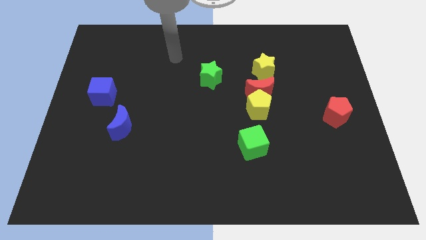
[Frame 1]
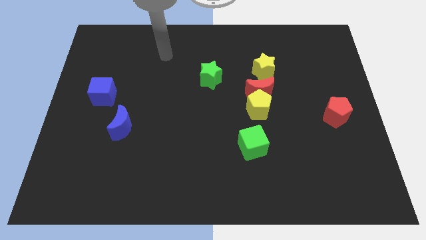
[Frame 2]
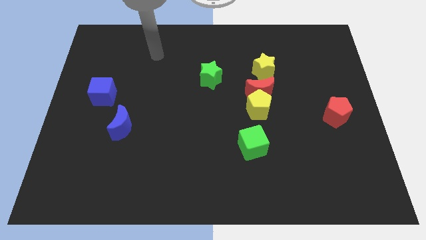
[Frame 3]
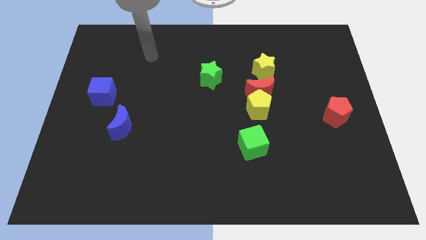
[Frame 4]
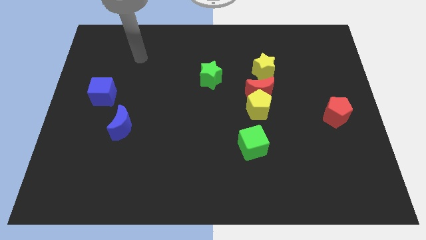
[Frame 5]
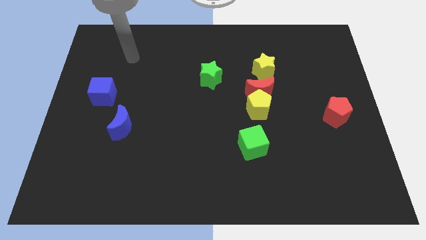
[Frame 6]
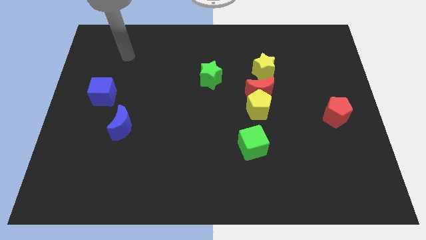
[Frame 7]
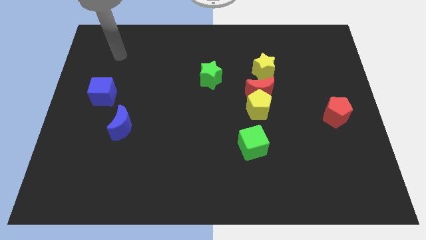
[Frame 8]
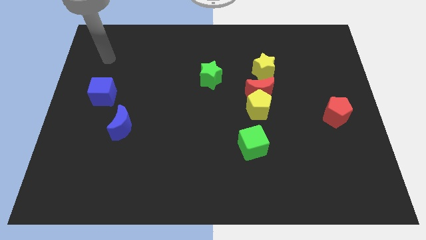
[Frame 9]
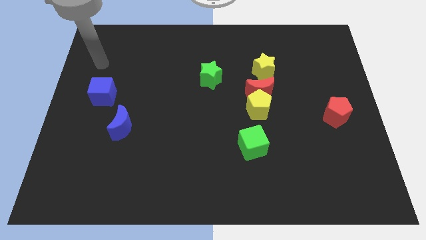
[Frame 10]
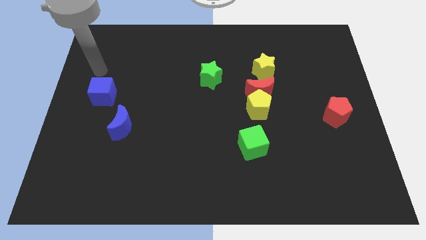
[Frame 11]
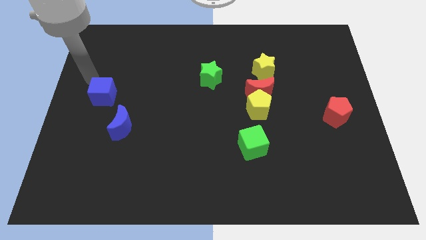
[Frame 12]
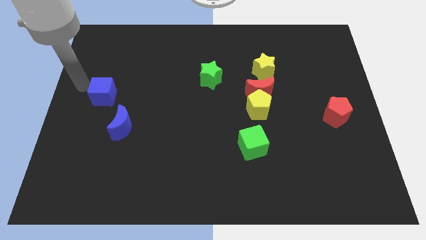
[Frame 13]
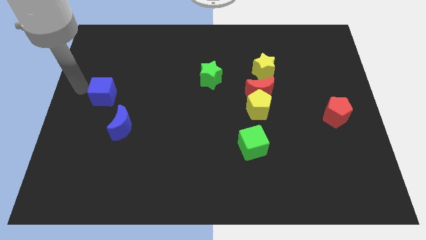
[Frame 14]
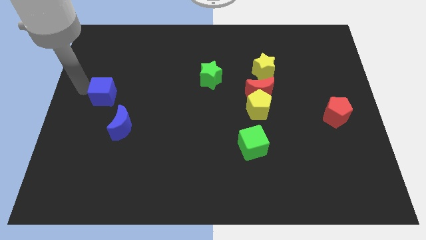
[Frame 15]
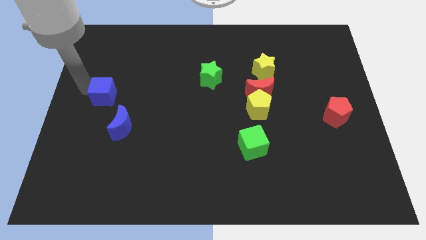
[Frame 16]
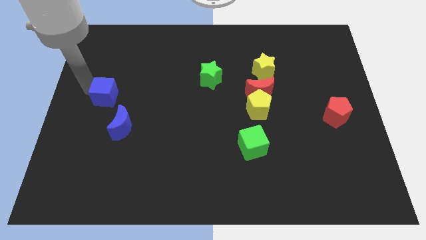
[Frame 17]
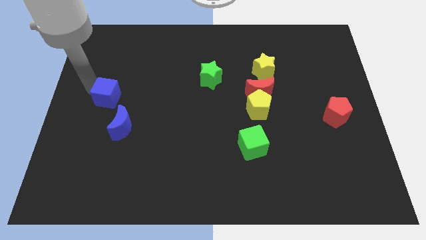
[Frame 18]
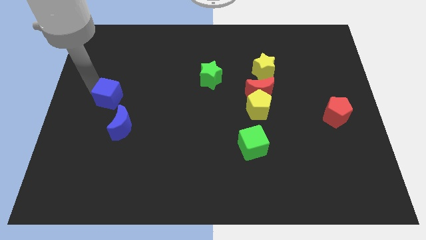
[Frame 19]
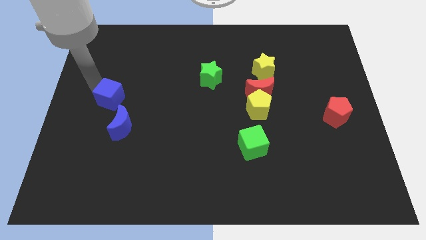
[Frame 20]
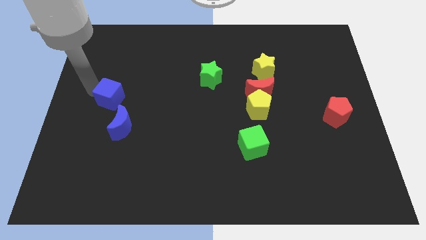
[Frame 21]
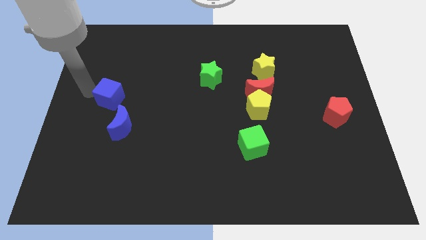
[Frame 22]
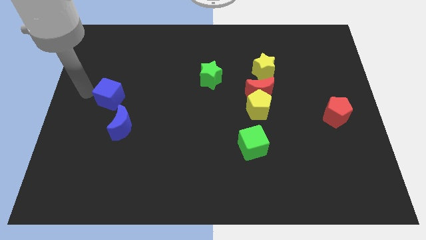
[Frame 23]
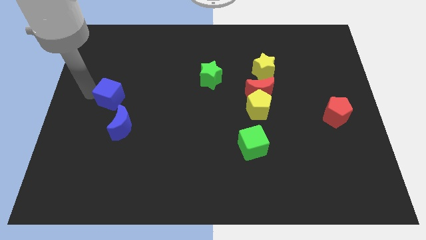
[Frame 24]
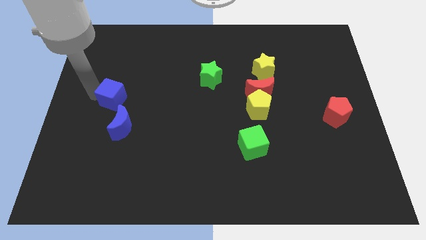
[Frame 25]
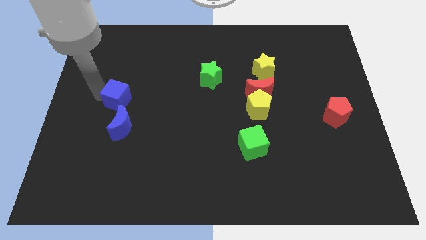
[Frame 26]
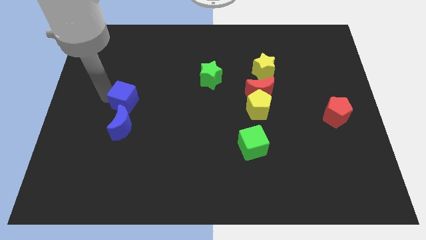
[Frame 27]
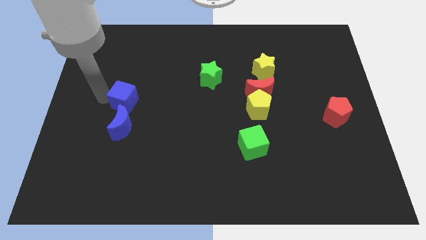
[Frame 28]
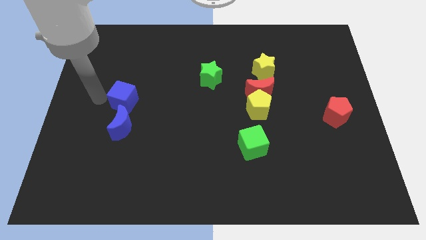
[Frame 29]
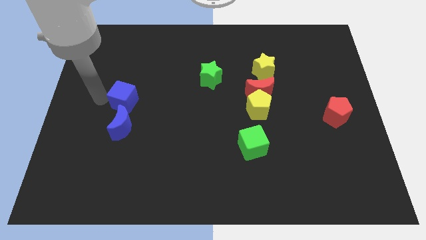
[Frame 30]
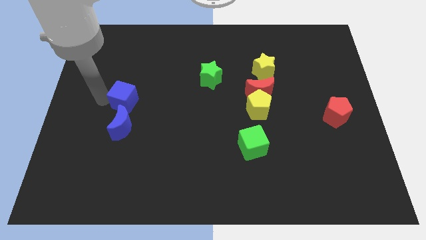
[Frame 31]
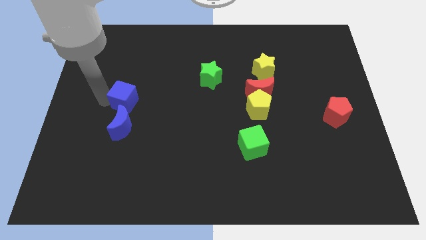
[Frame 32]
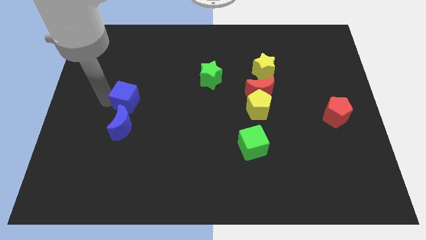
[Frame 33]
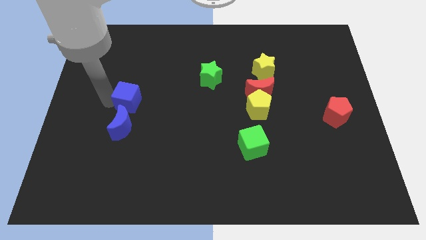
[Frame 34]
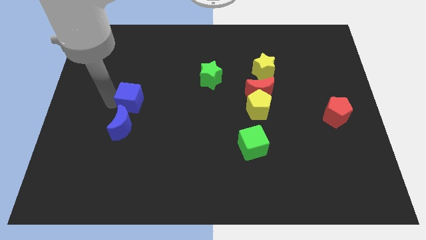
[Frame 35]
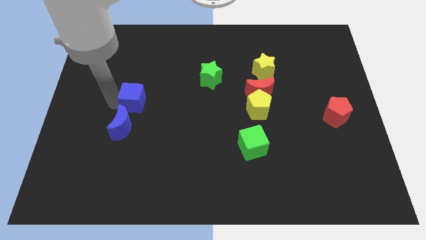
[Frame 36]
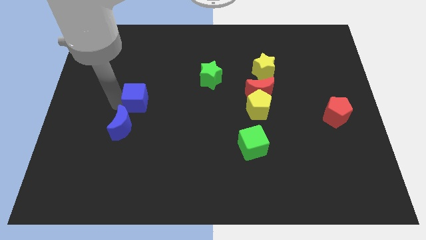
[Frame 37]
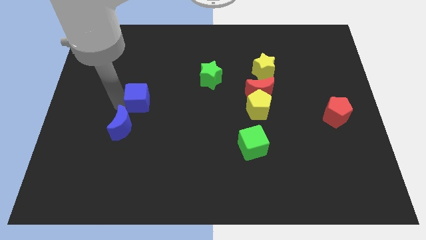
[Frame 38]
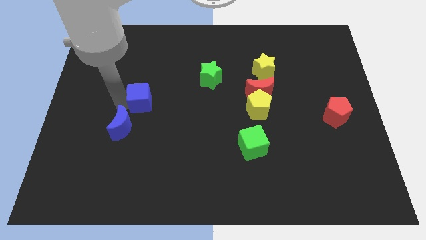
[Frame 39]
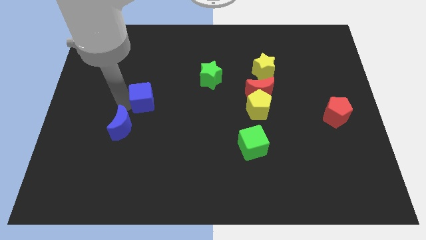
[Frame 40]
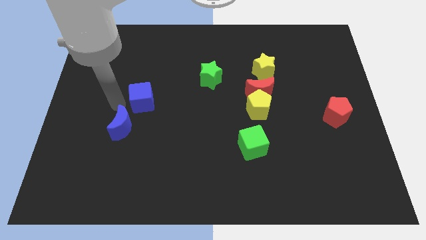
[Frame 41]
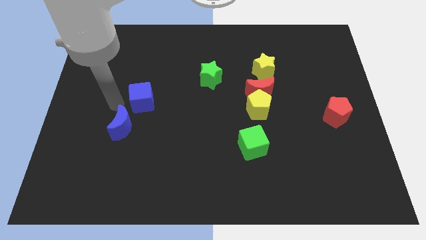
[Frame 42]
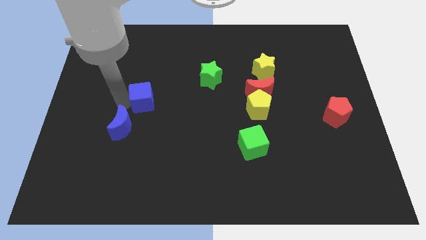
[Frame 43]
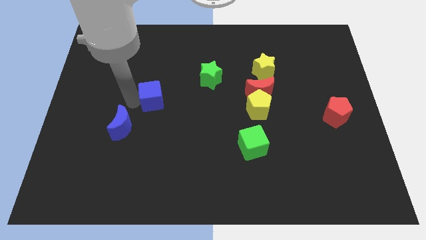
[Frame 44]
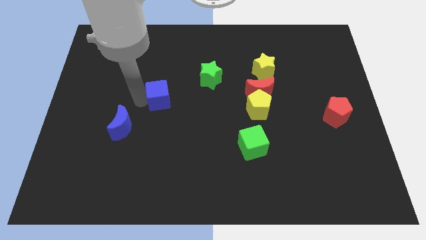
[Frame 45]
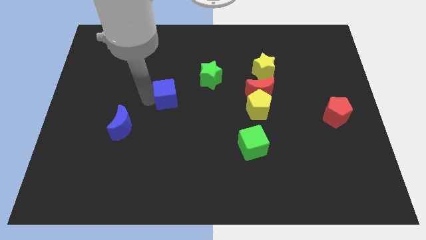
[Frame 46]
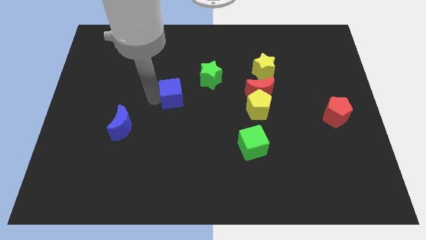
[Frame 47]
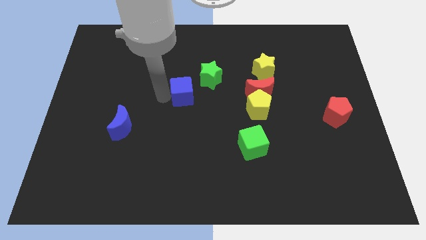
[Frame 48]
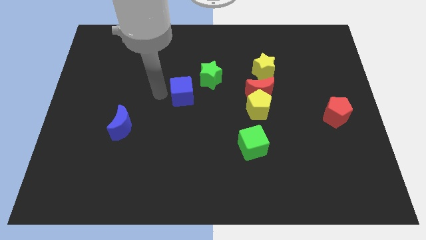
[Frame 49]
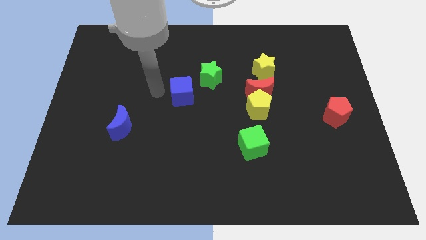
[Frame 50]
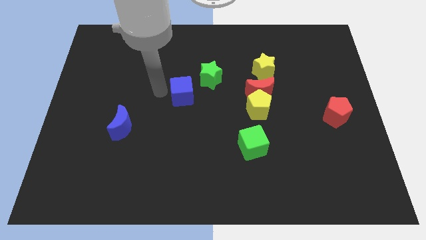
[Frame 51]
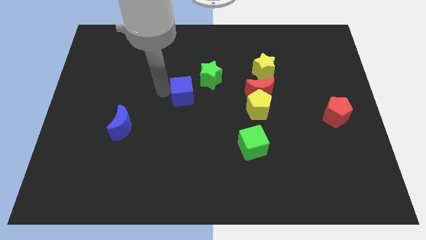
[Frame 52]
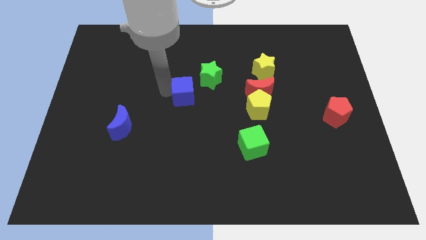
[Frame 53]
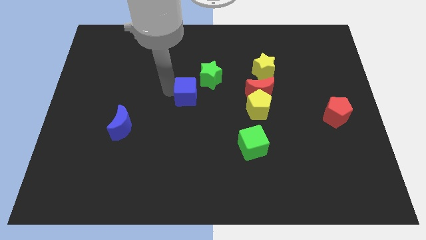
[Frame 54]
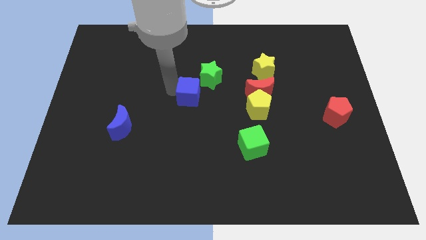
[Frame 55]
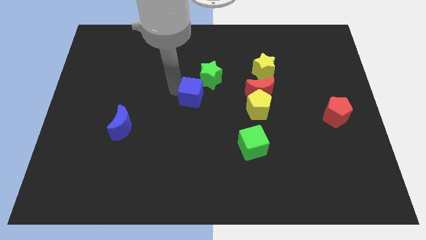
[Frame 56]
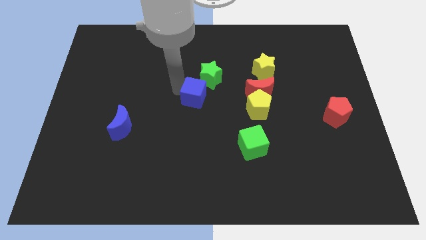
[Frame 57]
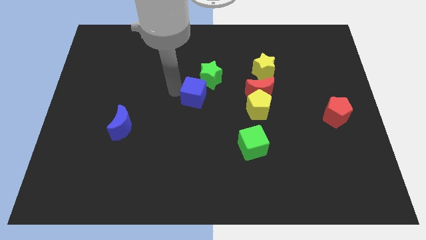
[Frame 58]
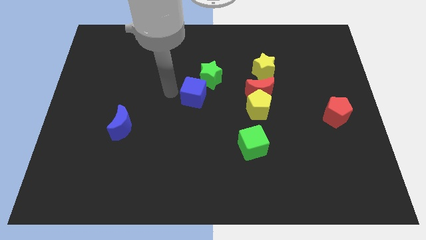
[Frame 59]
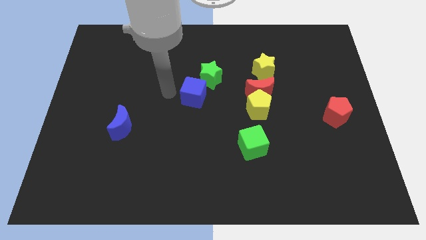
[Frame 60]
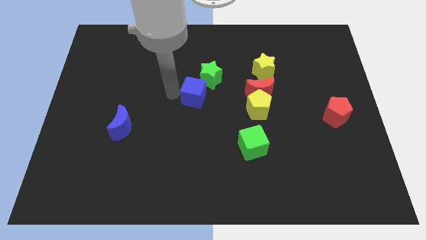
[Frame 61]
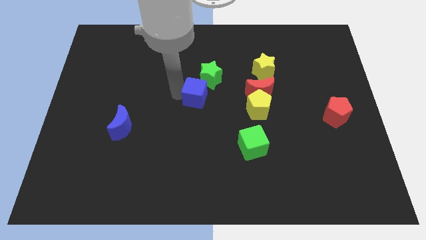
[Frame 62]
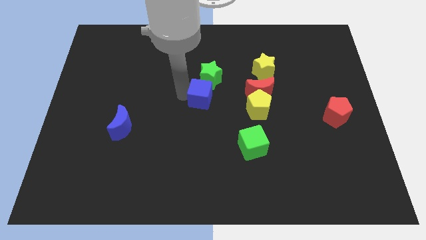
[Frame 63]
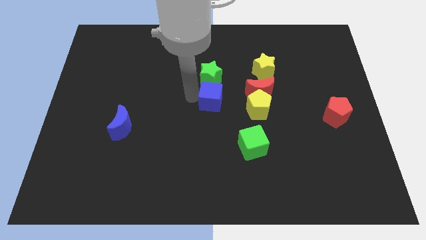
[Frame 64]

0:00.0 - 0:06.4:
push the blue cube to the bottom right side of the green star
